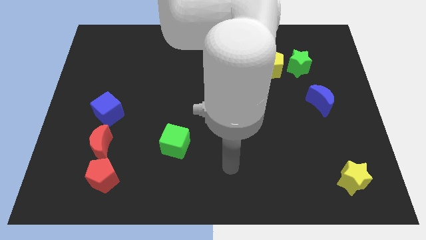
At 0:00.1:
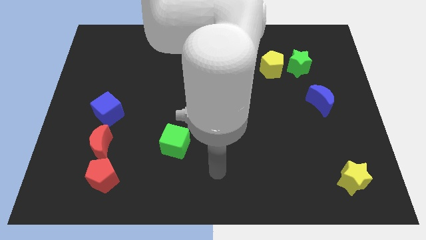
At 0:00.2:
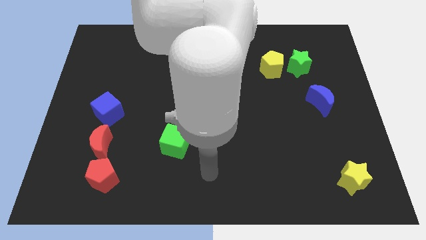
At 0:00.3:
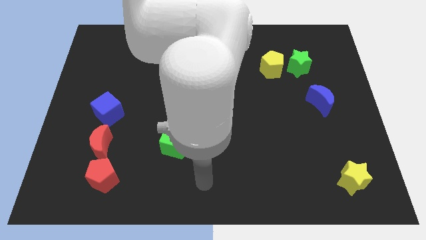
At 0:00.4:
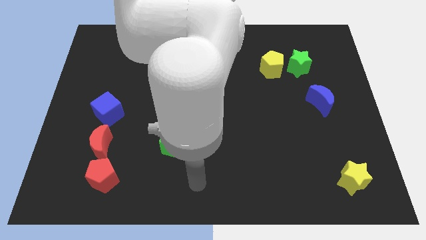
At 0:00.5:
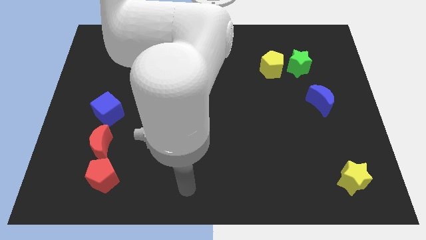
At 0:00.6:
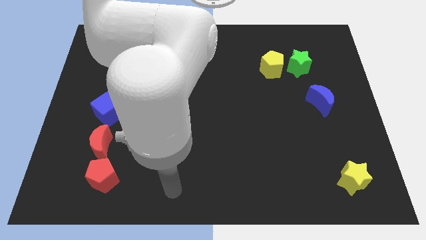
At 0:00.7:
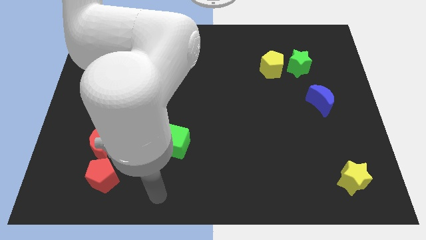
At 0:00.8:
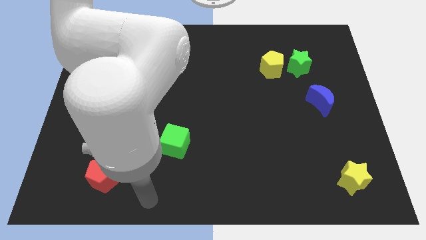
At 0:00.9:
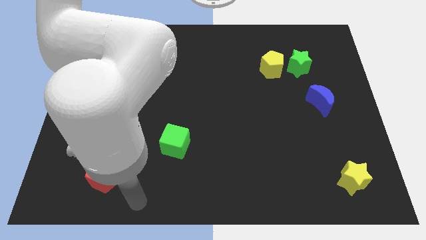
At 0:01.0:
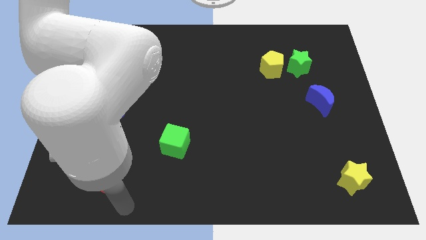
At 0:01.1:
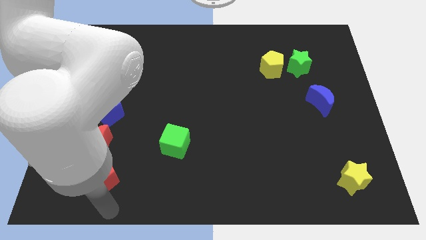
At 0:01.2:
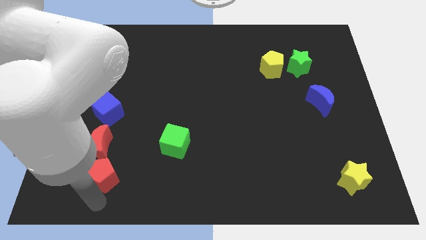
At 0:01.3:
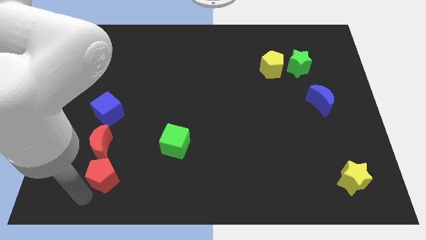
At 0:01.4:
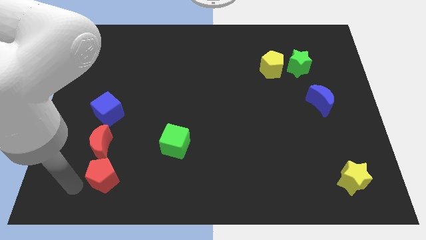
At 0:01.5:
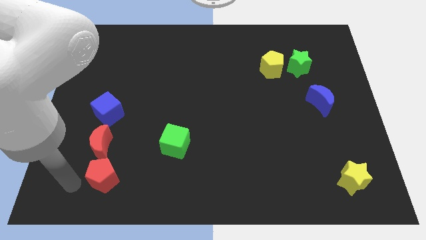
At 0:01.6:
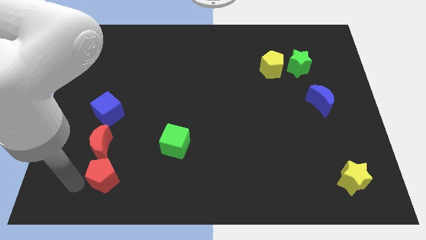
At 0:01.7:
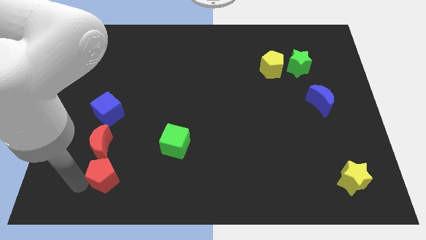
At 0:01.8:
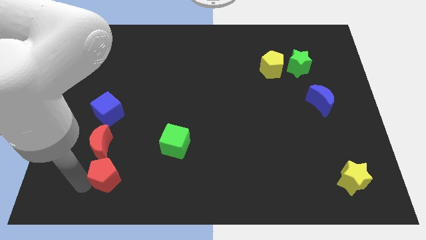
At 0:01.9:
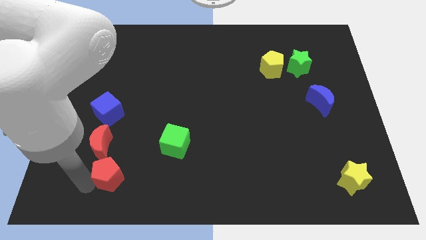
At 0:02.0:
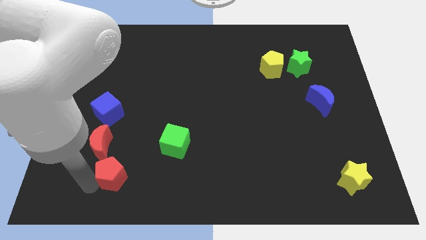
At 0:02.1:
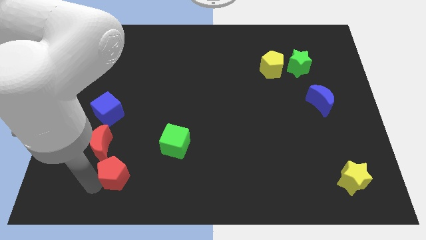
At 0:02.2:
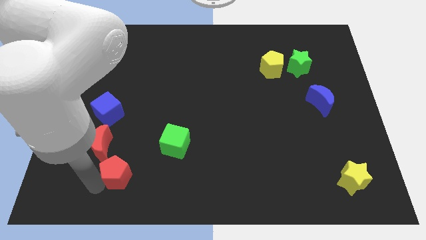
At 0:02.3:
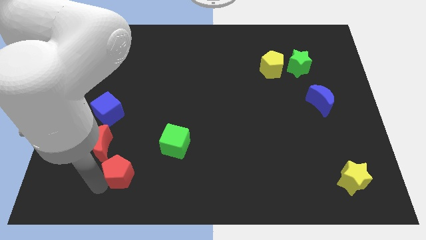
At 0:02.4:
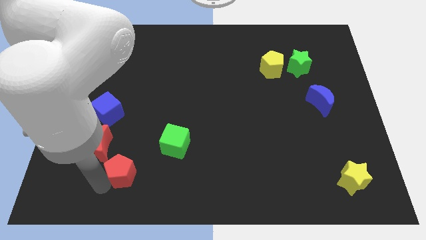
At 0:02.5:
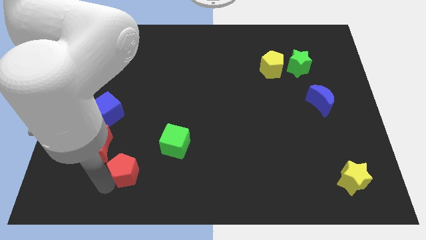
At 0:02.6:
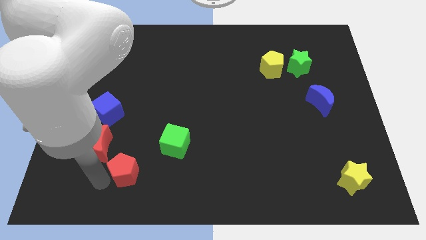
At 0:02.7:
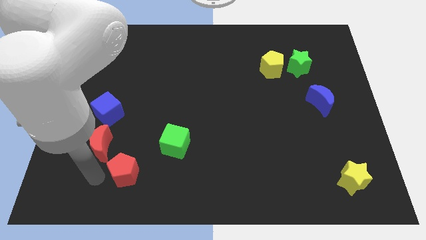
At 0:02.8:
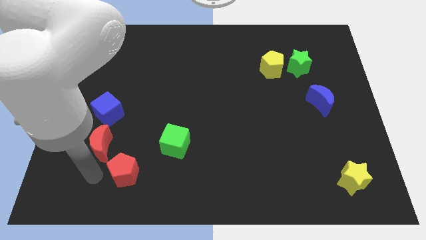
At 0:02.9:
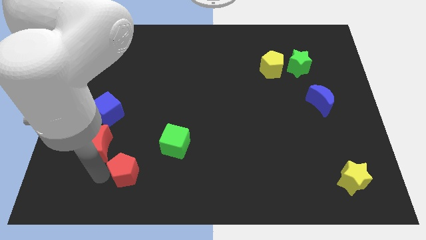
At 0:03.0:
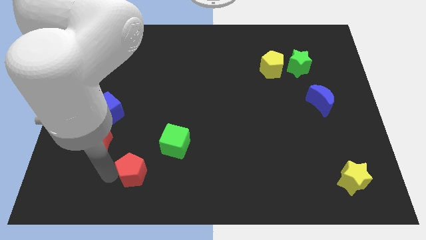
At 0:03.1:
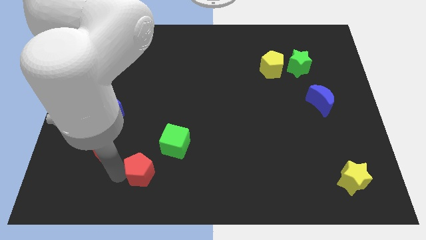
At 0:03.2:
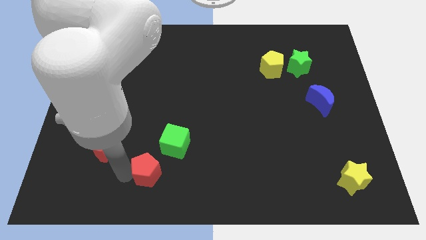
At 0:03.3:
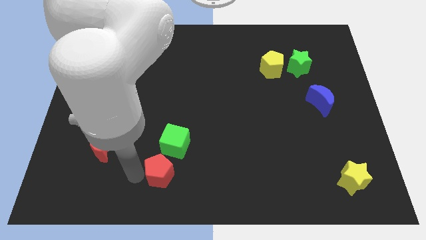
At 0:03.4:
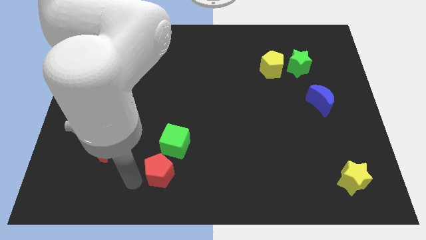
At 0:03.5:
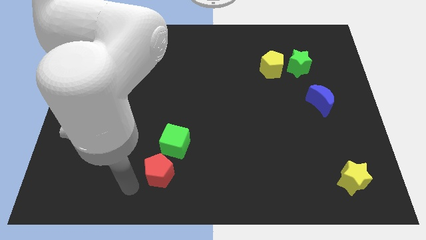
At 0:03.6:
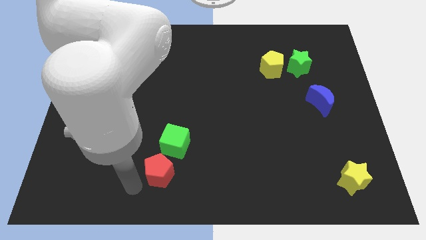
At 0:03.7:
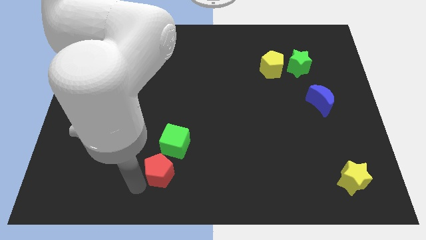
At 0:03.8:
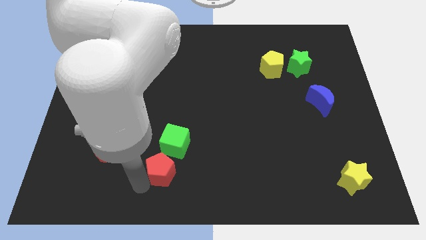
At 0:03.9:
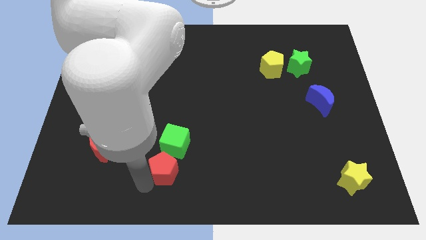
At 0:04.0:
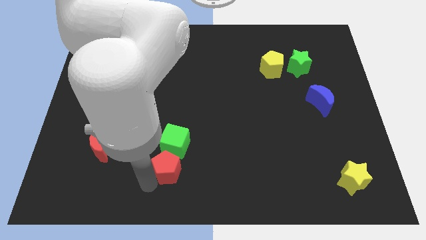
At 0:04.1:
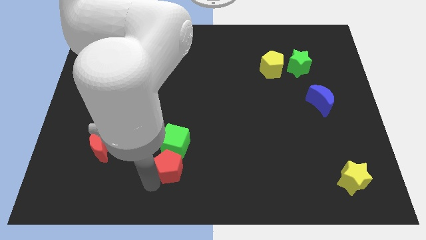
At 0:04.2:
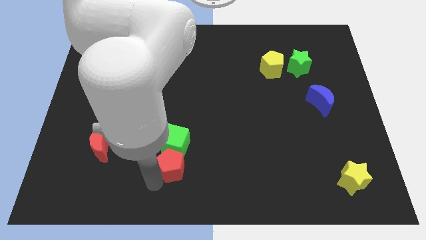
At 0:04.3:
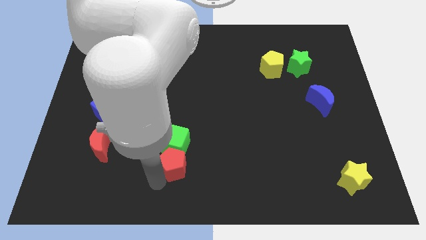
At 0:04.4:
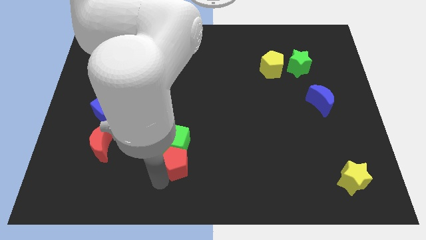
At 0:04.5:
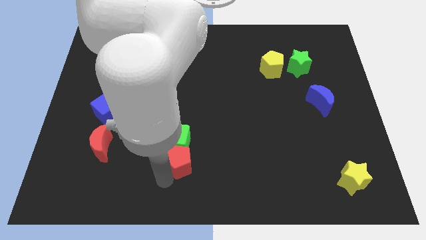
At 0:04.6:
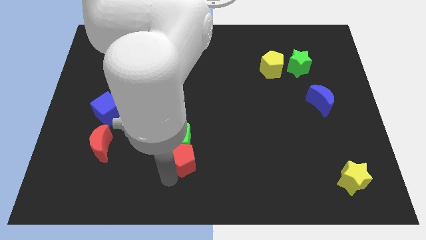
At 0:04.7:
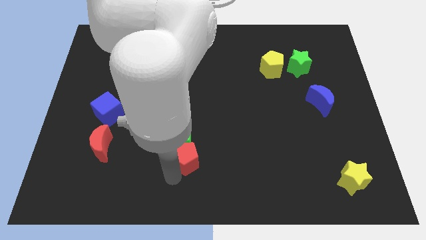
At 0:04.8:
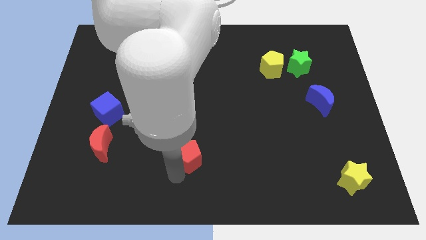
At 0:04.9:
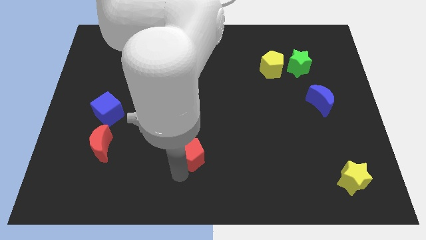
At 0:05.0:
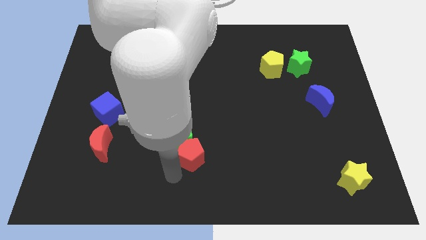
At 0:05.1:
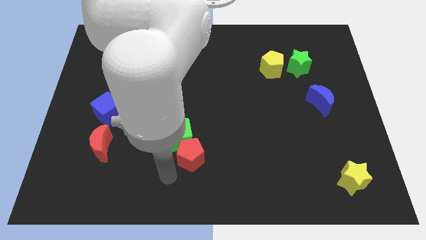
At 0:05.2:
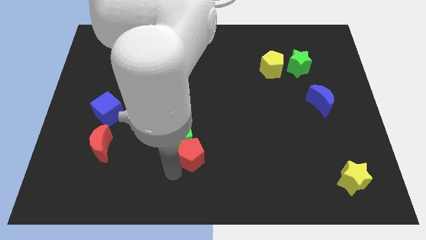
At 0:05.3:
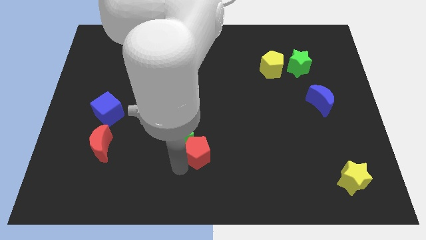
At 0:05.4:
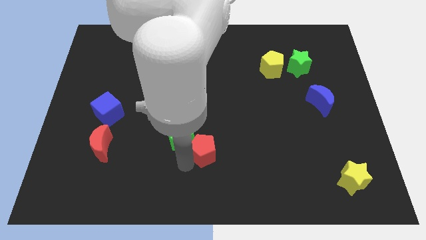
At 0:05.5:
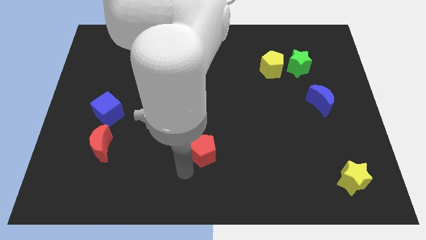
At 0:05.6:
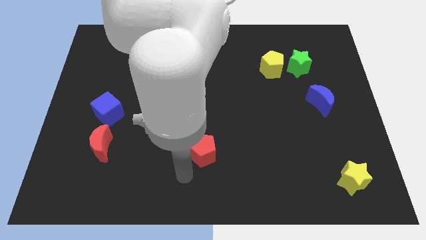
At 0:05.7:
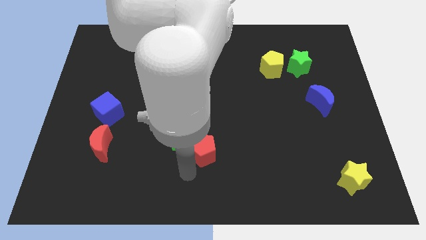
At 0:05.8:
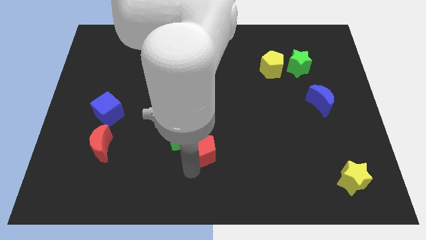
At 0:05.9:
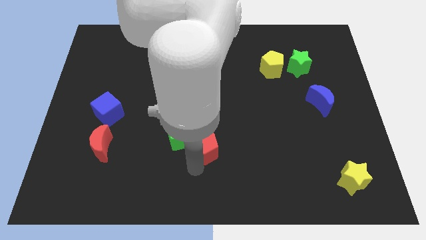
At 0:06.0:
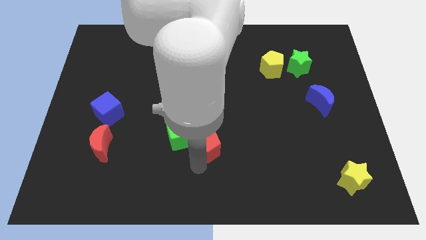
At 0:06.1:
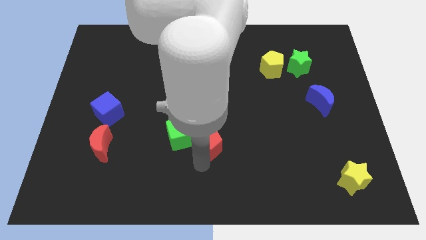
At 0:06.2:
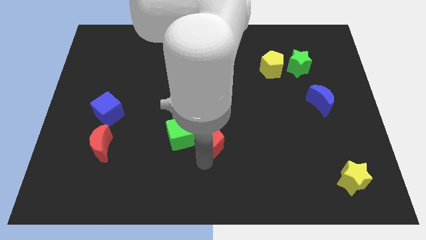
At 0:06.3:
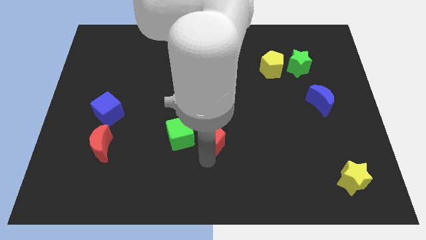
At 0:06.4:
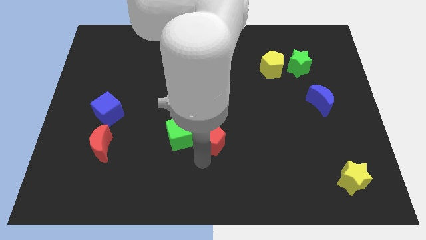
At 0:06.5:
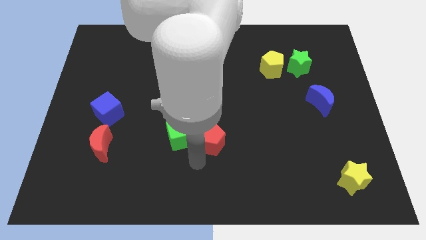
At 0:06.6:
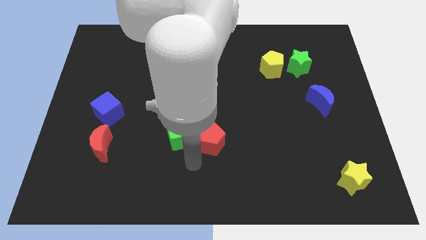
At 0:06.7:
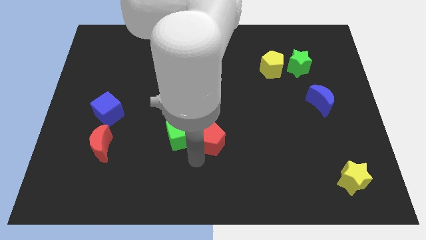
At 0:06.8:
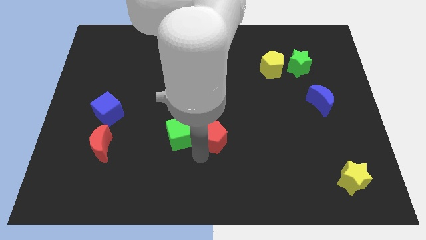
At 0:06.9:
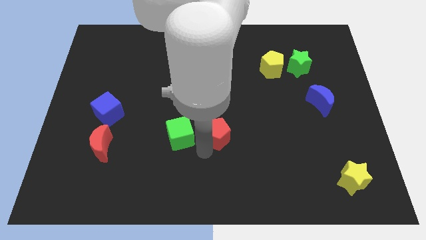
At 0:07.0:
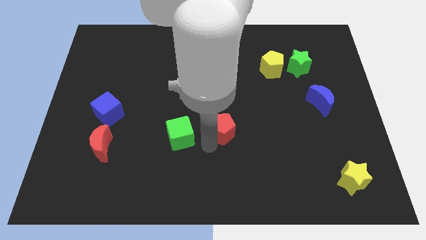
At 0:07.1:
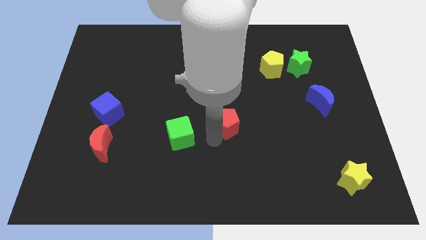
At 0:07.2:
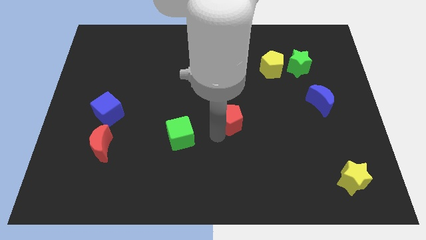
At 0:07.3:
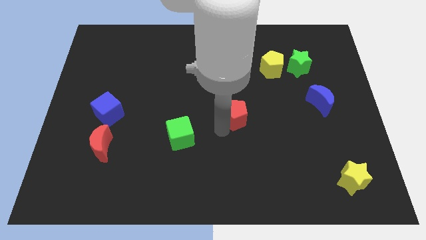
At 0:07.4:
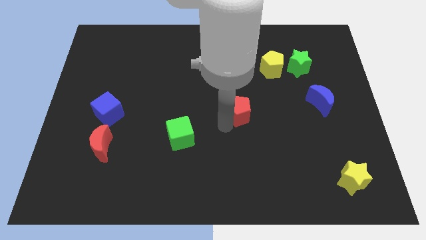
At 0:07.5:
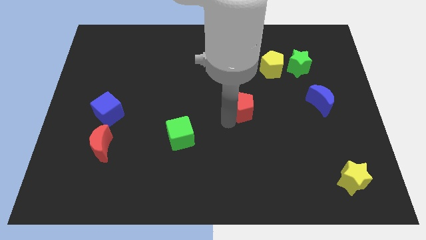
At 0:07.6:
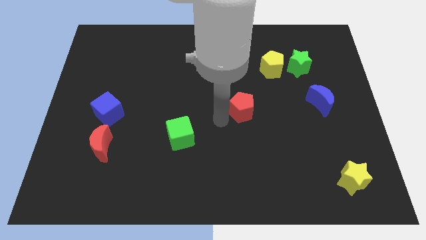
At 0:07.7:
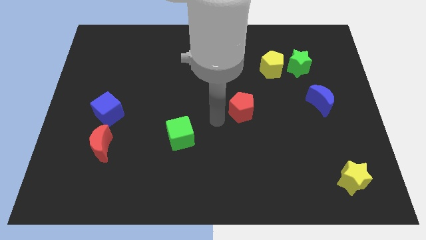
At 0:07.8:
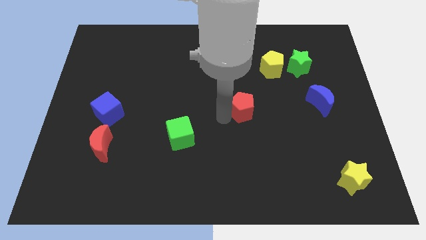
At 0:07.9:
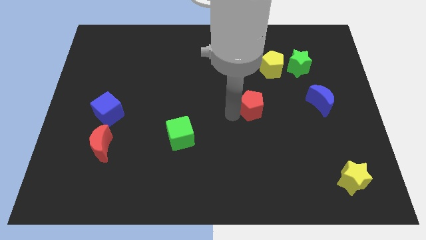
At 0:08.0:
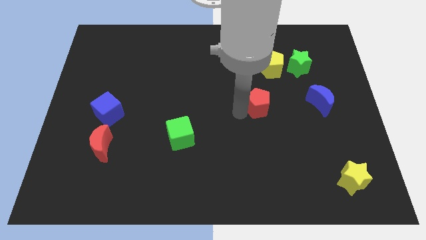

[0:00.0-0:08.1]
put the red pentagon to the bottom of the yellow pentagon
